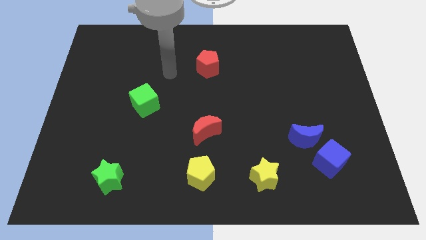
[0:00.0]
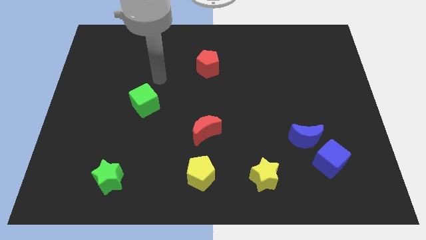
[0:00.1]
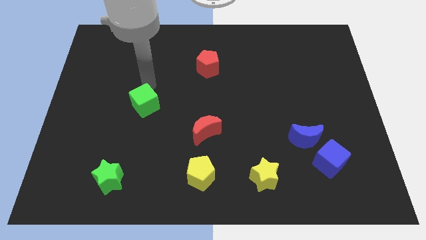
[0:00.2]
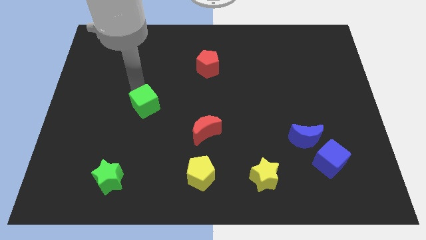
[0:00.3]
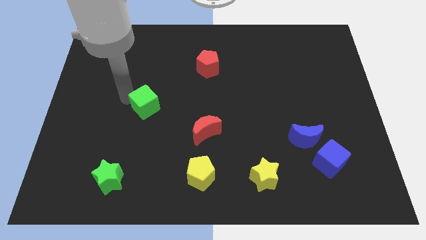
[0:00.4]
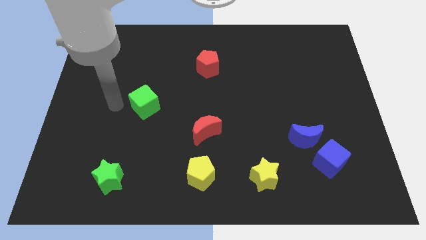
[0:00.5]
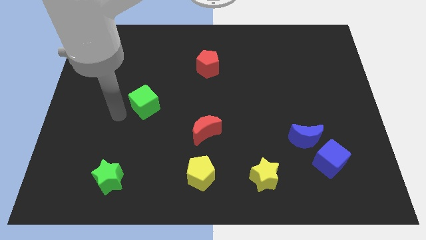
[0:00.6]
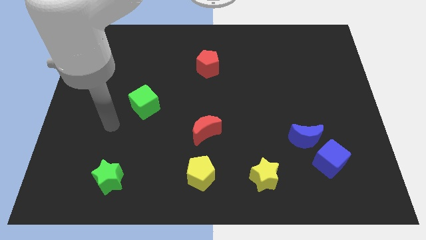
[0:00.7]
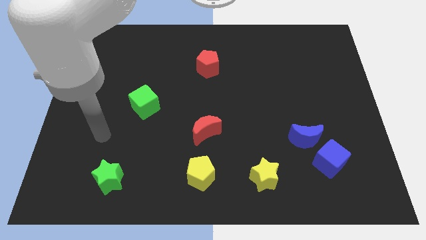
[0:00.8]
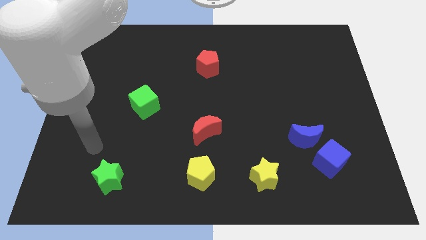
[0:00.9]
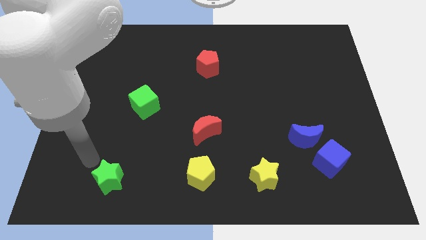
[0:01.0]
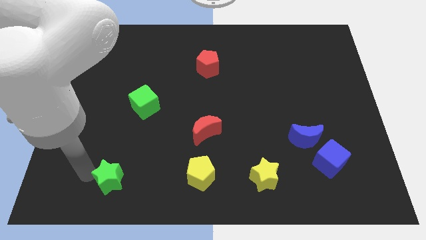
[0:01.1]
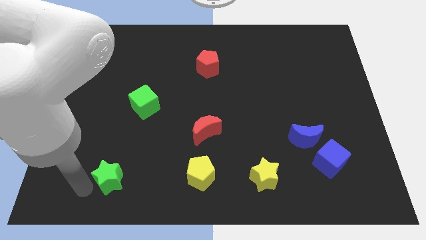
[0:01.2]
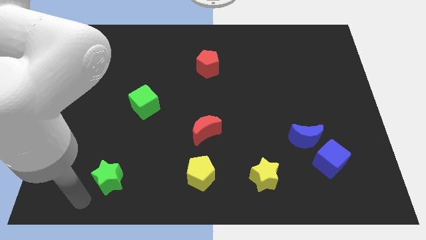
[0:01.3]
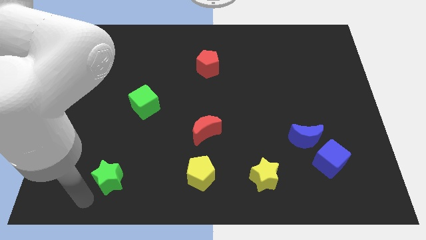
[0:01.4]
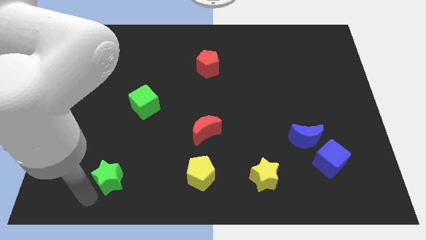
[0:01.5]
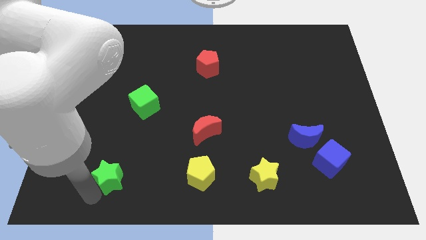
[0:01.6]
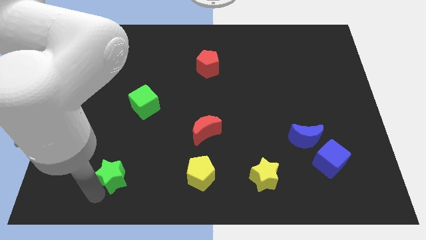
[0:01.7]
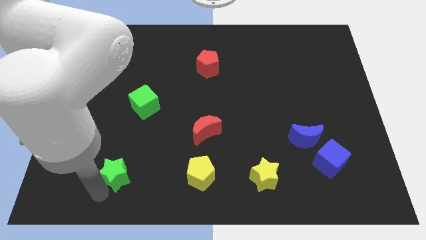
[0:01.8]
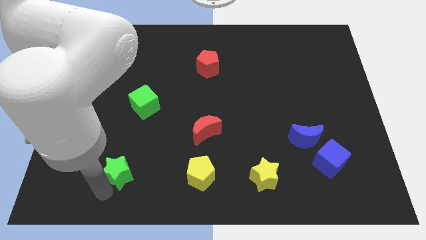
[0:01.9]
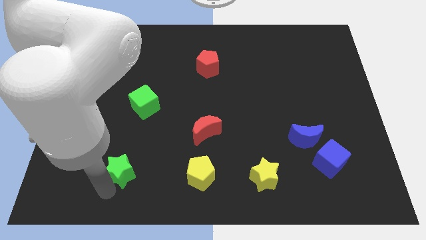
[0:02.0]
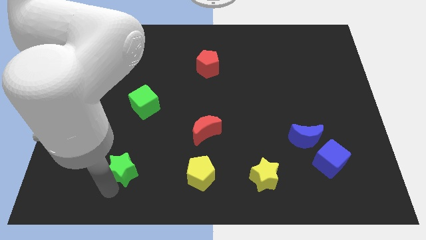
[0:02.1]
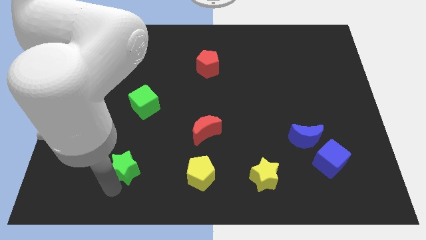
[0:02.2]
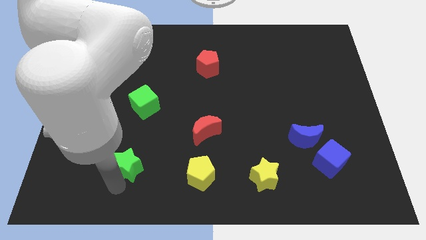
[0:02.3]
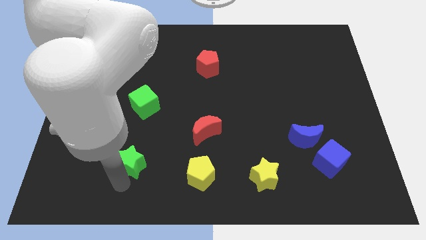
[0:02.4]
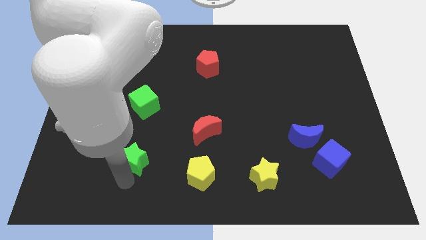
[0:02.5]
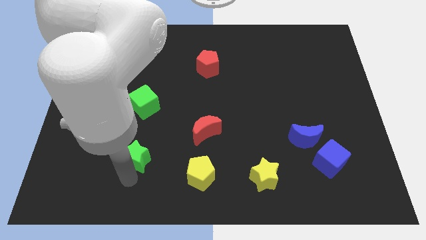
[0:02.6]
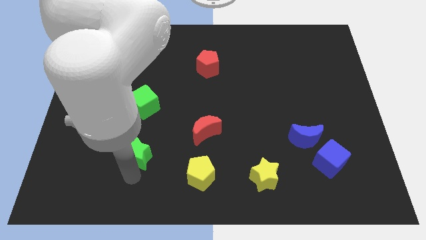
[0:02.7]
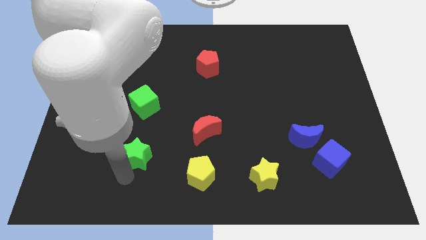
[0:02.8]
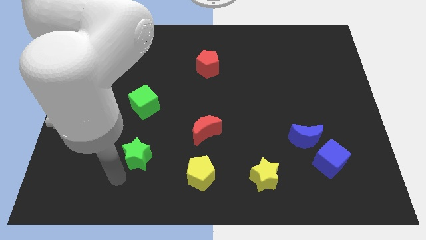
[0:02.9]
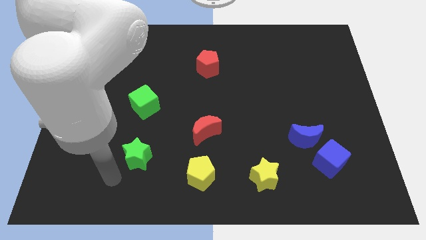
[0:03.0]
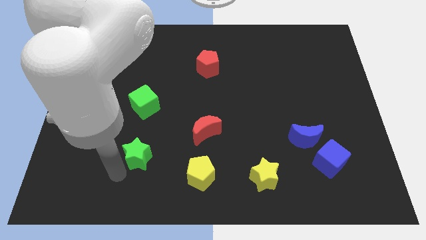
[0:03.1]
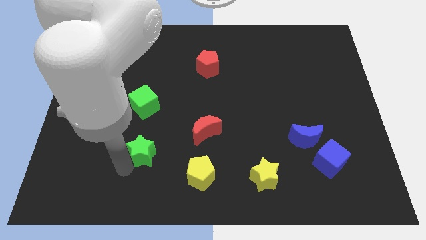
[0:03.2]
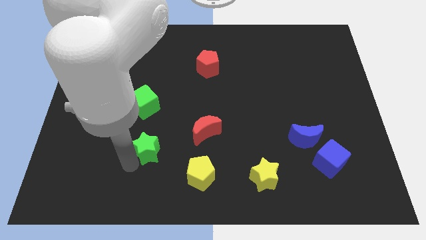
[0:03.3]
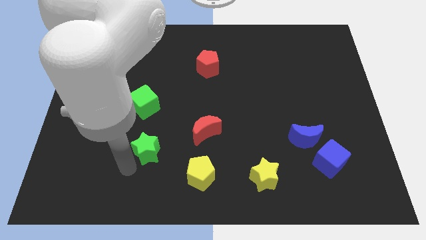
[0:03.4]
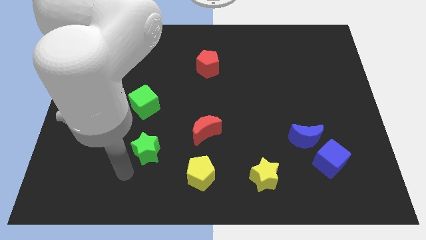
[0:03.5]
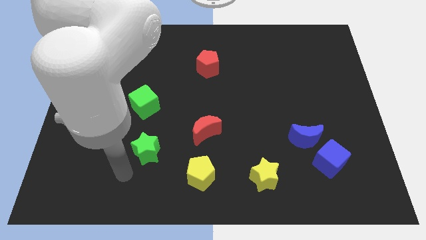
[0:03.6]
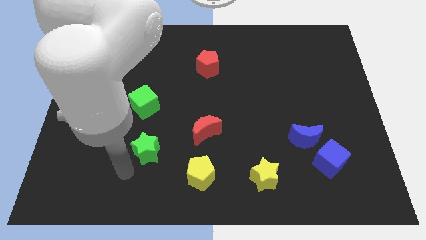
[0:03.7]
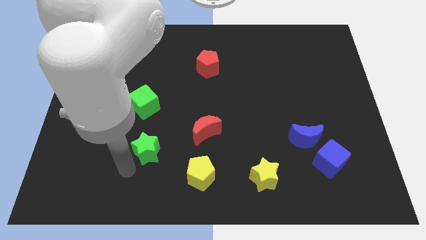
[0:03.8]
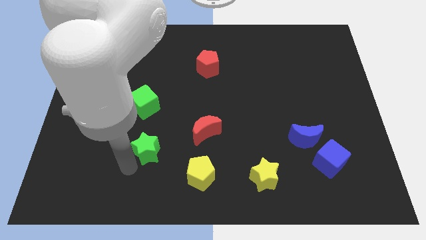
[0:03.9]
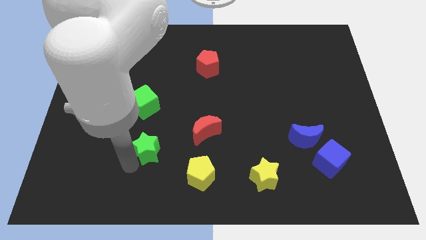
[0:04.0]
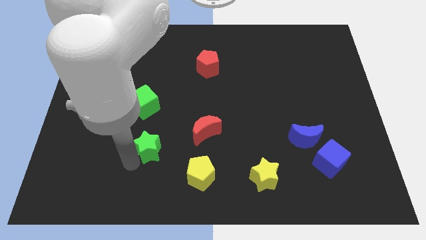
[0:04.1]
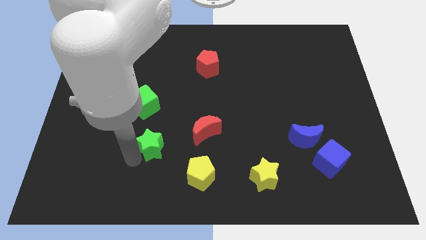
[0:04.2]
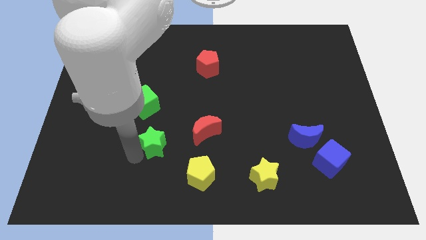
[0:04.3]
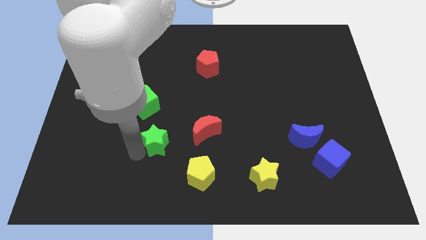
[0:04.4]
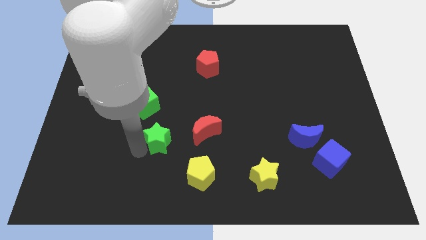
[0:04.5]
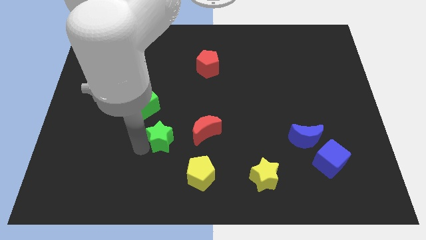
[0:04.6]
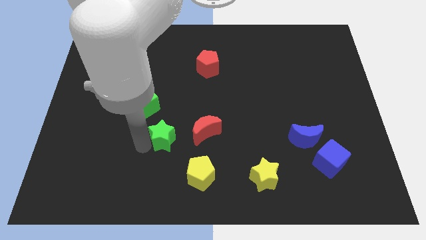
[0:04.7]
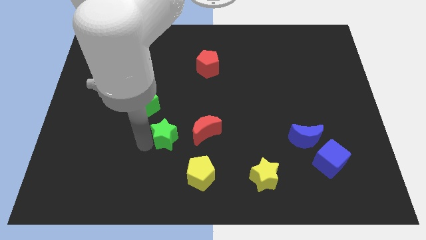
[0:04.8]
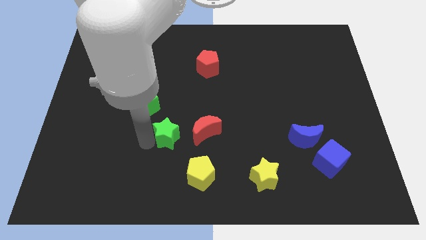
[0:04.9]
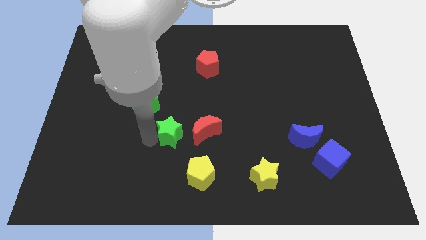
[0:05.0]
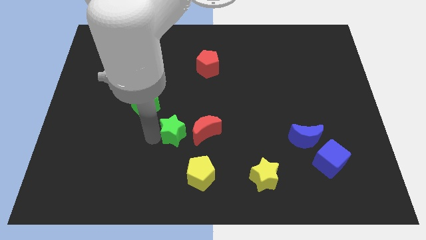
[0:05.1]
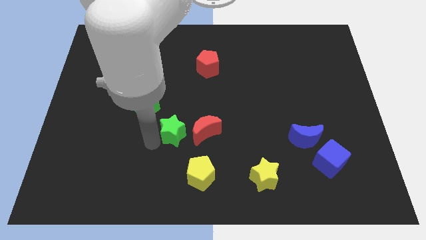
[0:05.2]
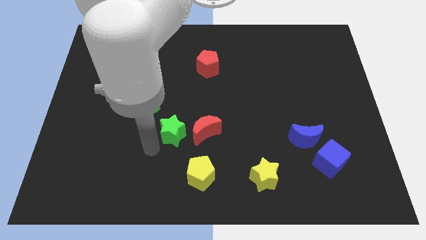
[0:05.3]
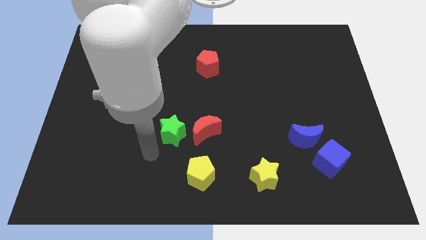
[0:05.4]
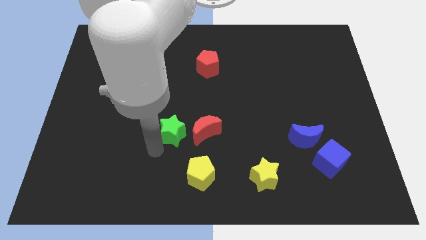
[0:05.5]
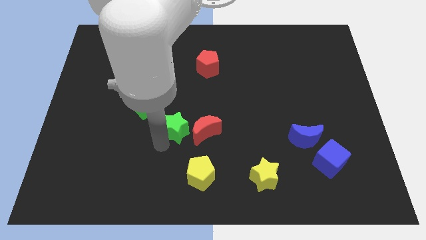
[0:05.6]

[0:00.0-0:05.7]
move the green star to the center of the board

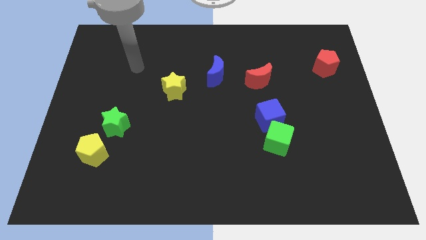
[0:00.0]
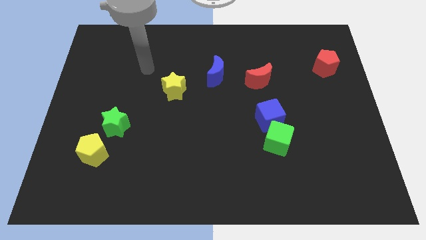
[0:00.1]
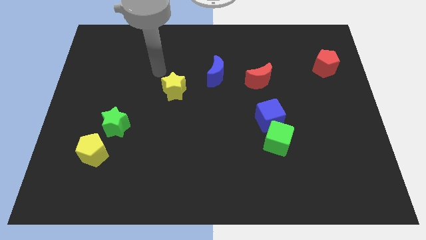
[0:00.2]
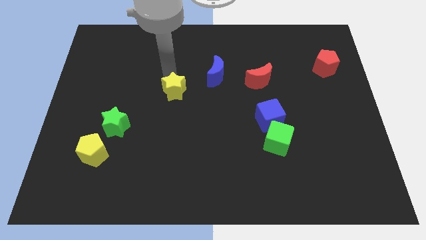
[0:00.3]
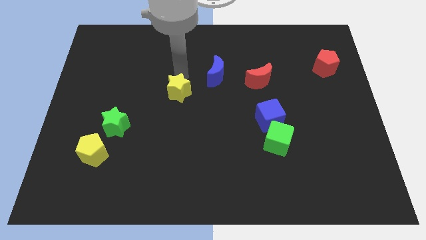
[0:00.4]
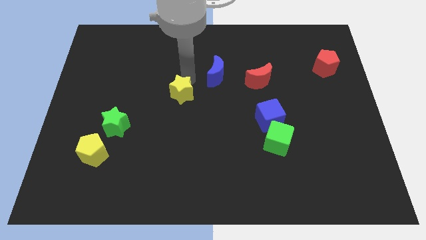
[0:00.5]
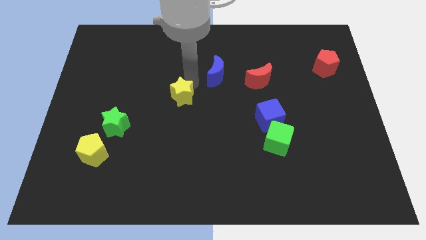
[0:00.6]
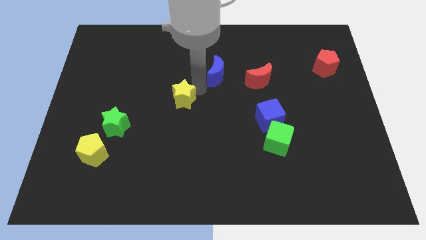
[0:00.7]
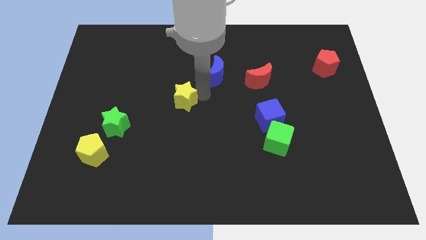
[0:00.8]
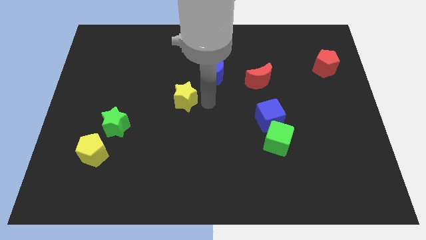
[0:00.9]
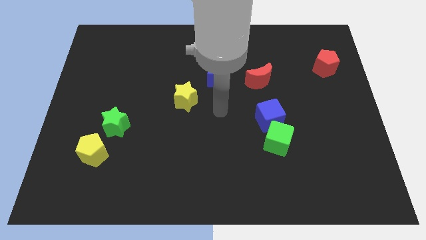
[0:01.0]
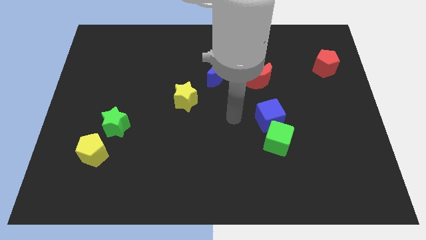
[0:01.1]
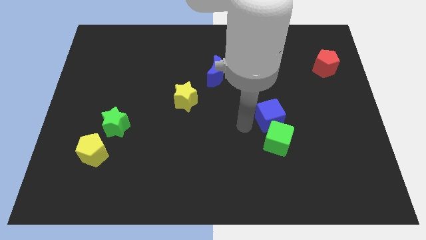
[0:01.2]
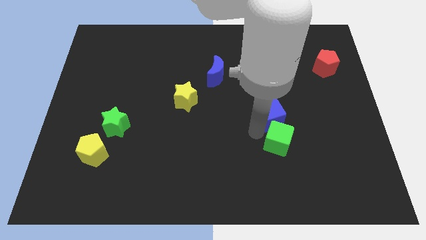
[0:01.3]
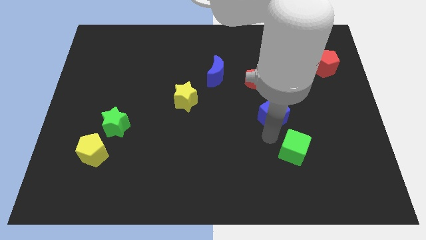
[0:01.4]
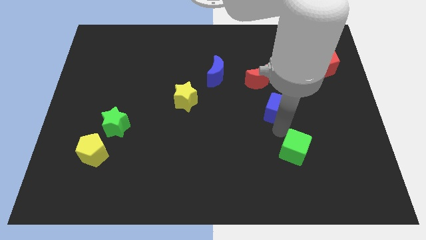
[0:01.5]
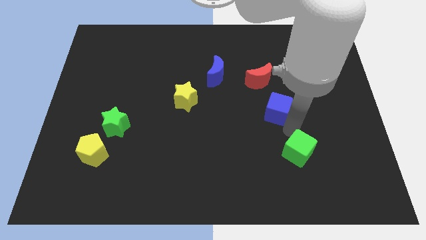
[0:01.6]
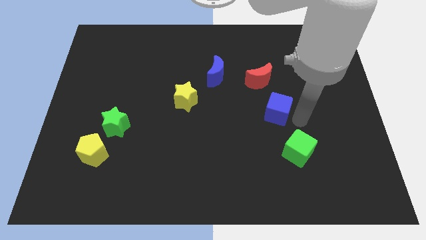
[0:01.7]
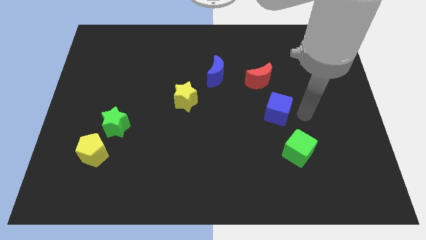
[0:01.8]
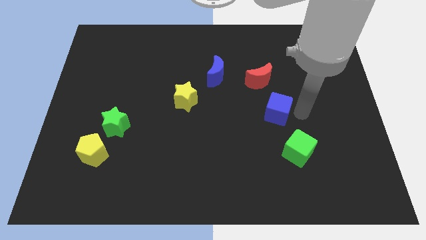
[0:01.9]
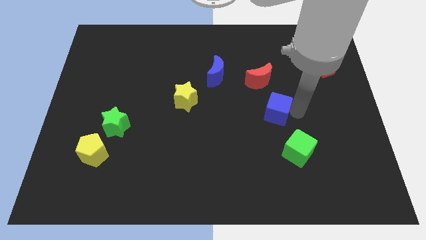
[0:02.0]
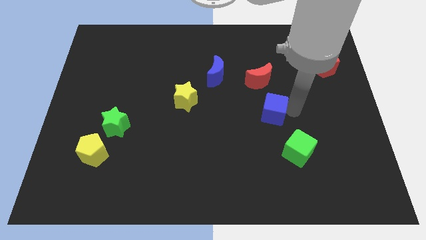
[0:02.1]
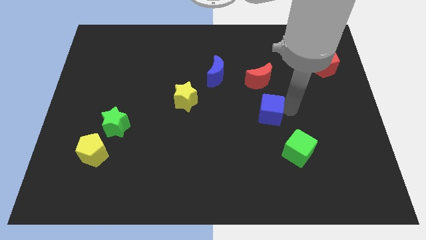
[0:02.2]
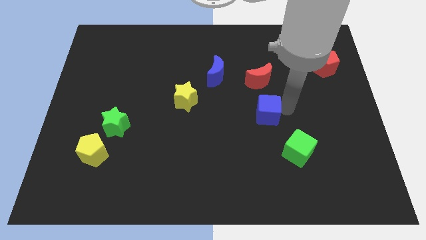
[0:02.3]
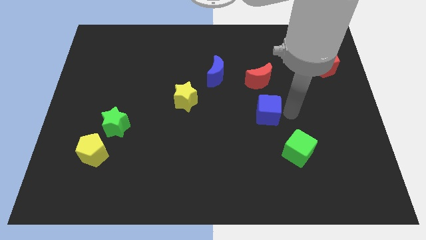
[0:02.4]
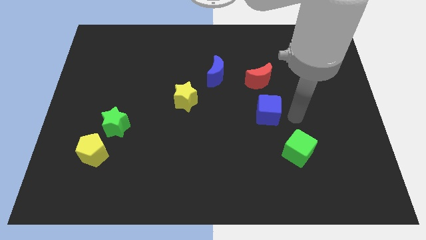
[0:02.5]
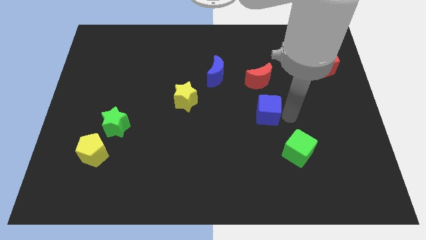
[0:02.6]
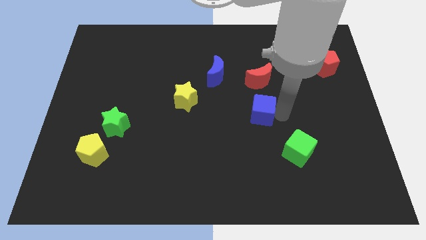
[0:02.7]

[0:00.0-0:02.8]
put the blue cube to the center
